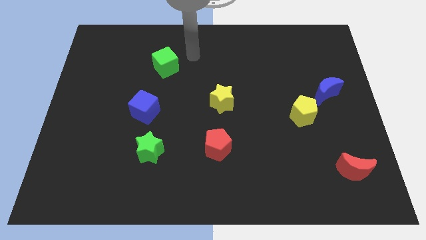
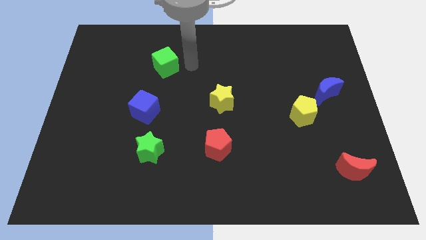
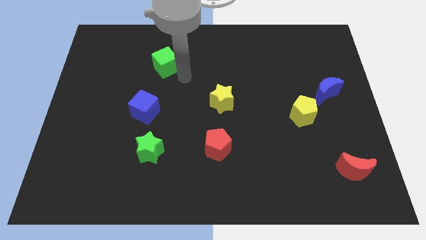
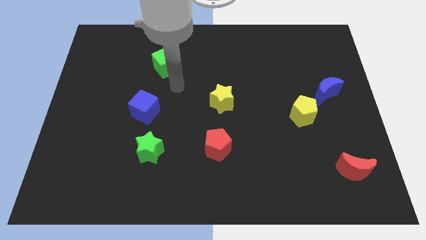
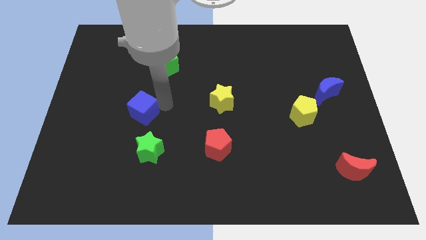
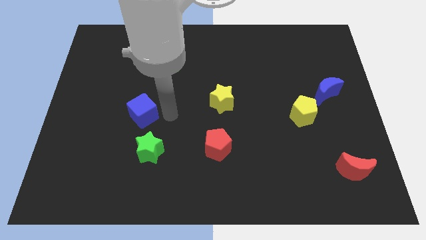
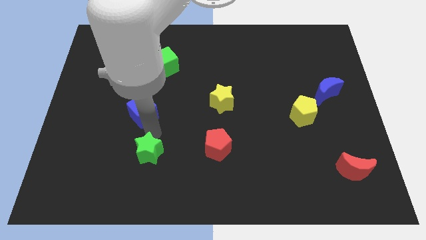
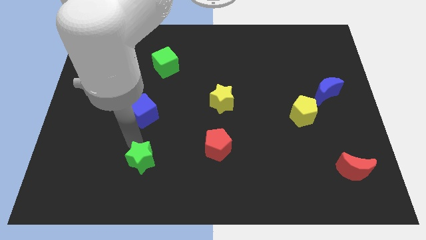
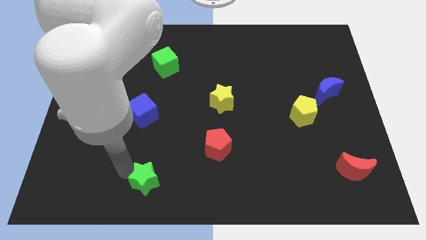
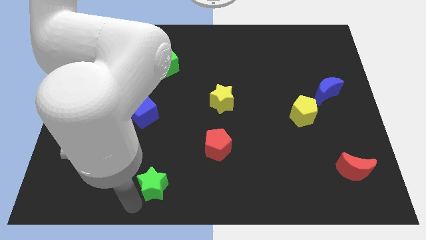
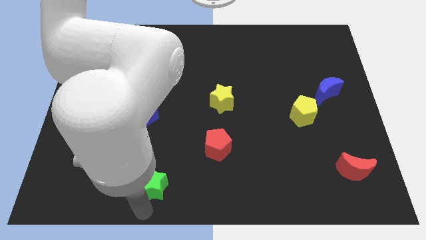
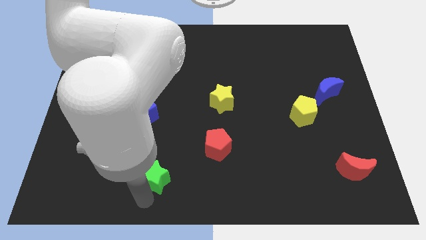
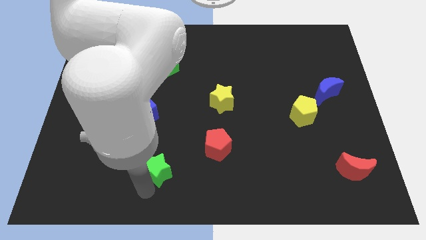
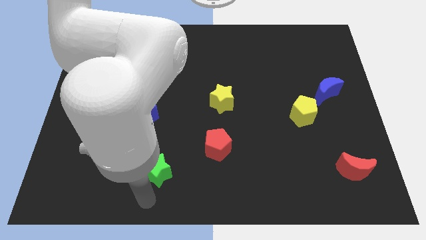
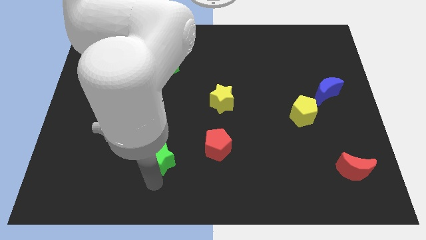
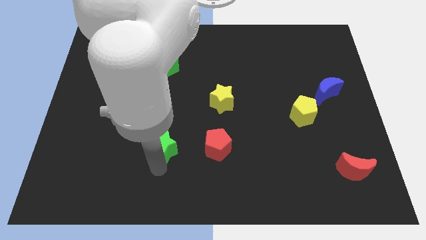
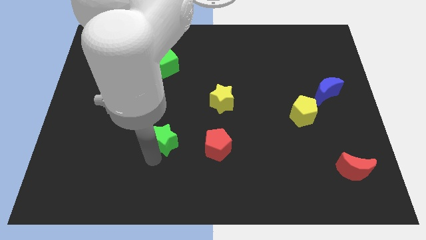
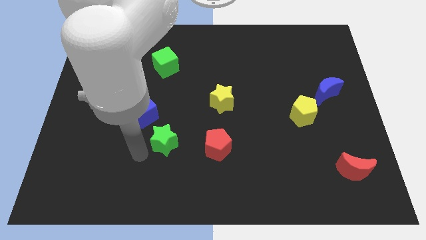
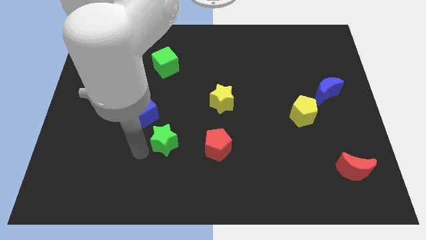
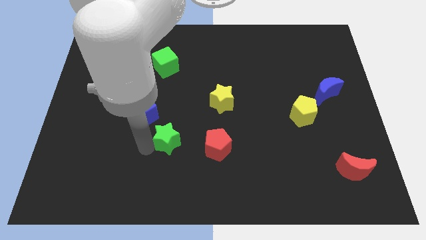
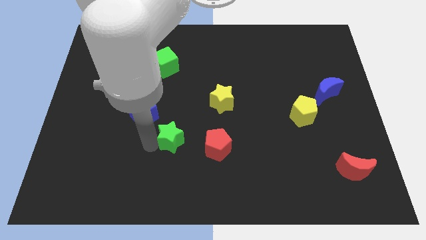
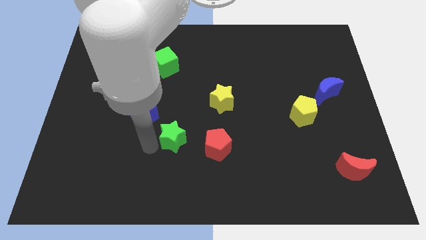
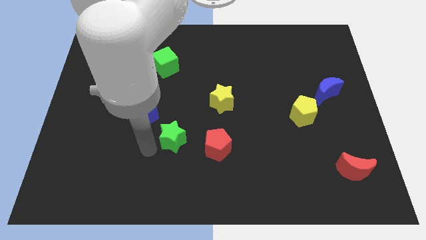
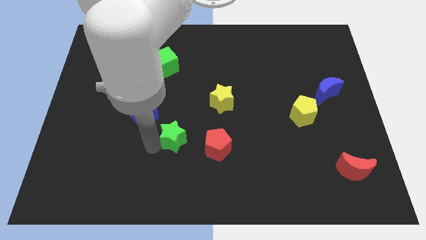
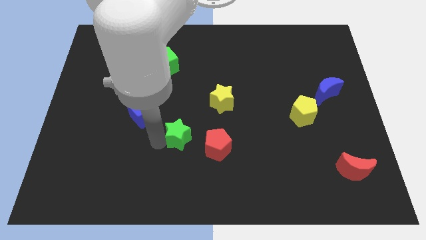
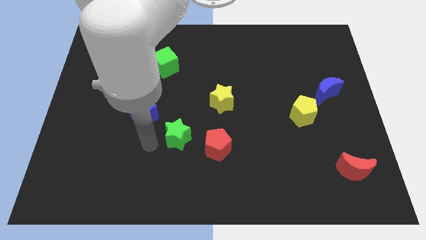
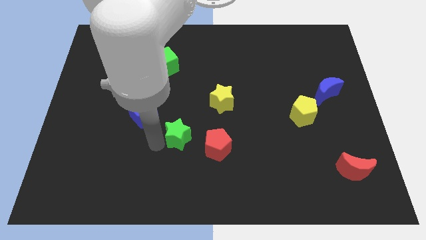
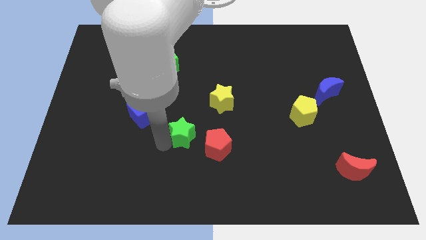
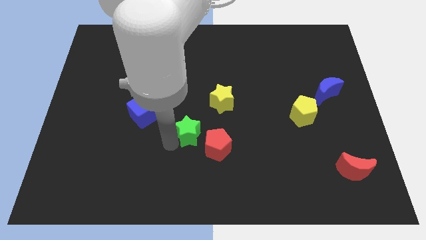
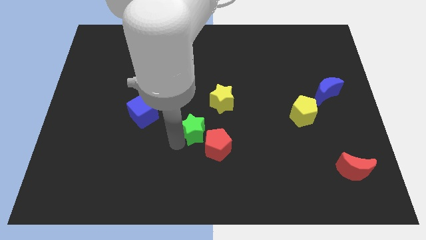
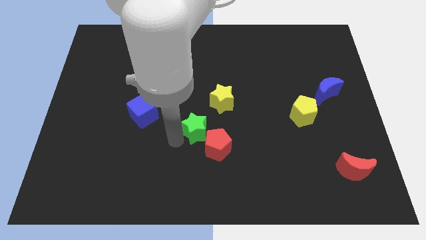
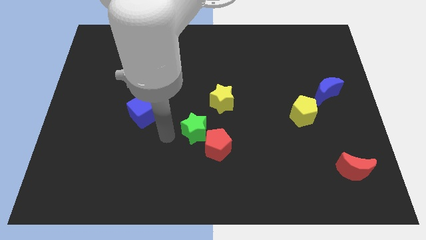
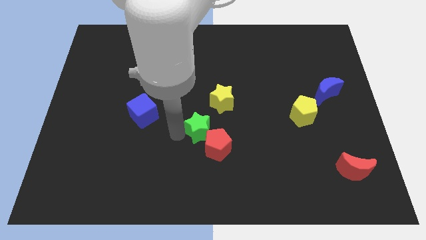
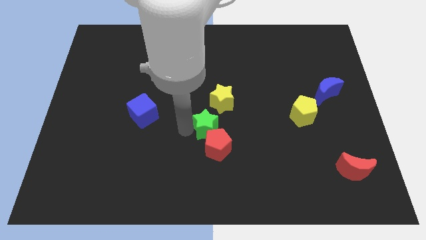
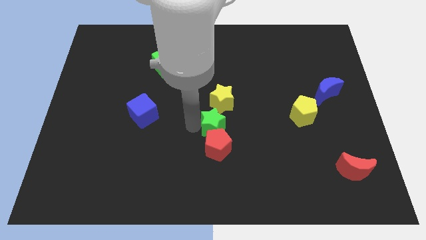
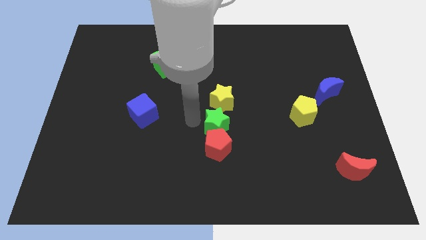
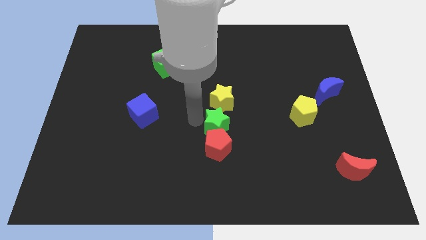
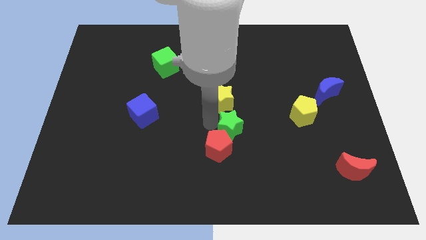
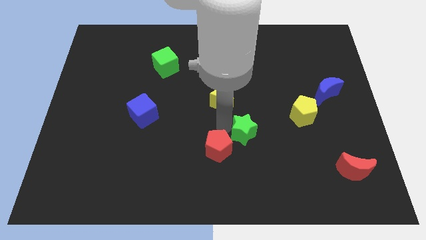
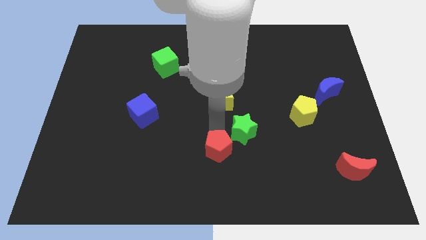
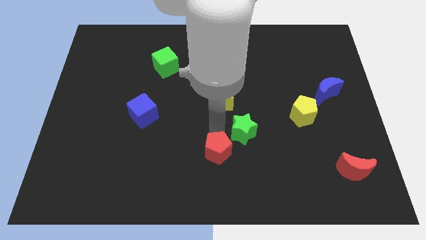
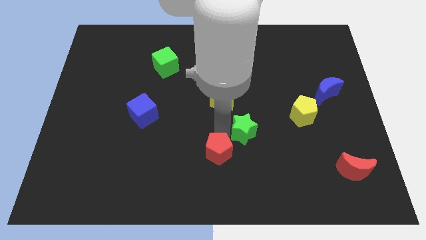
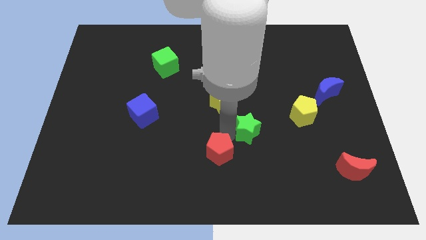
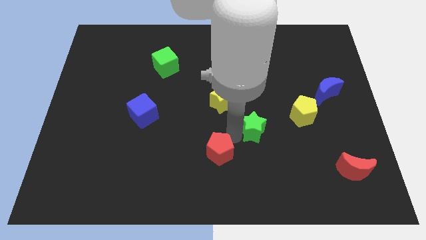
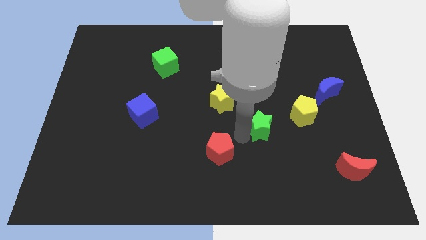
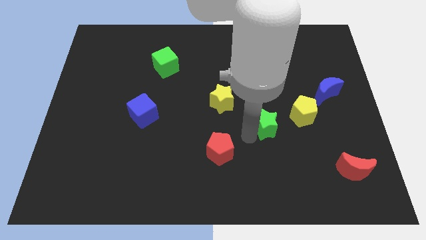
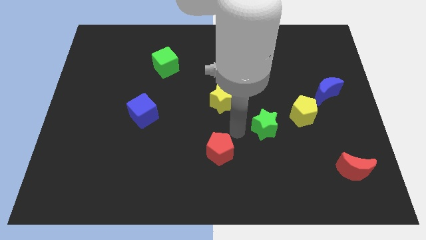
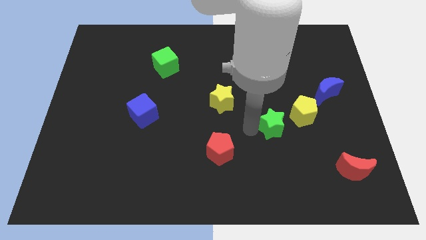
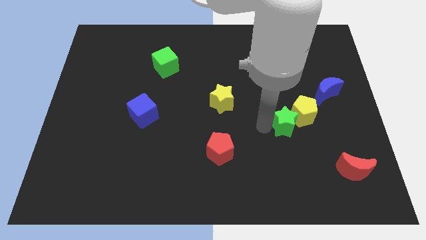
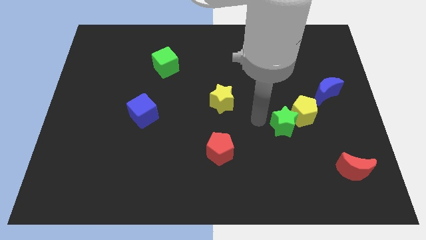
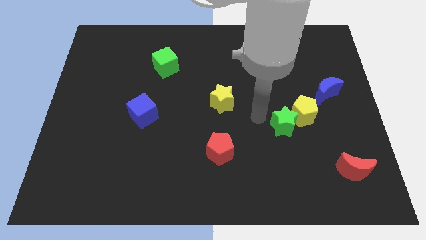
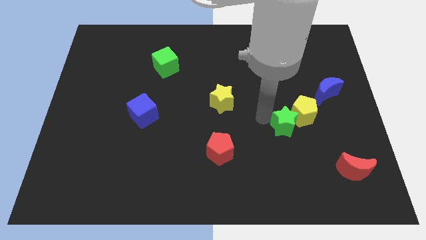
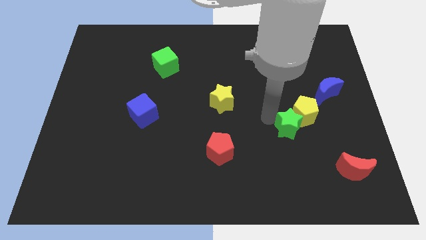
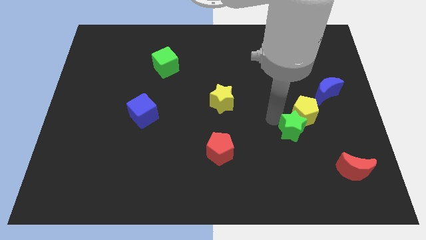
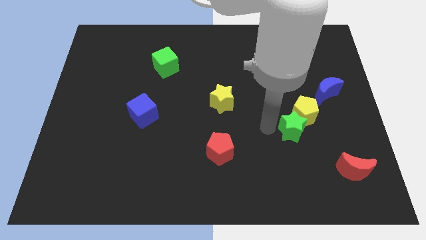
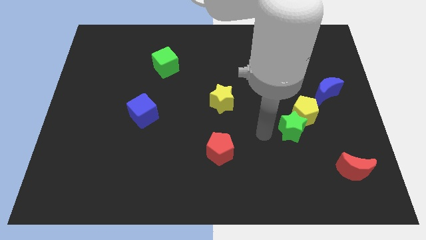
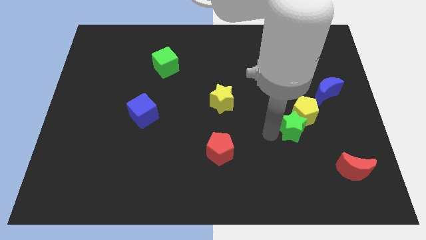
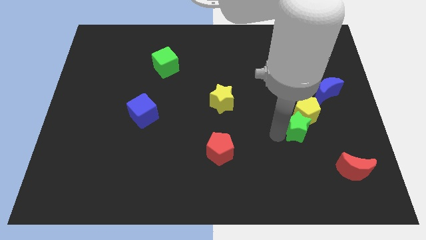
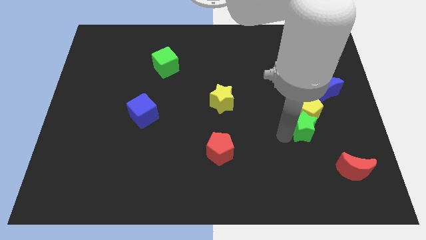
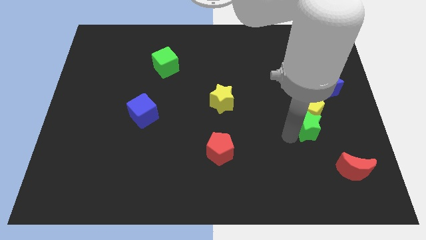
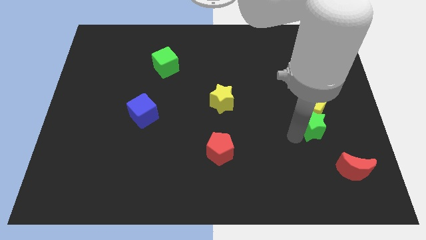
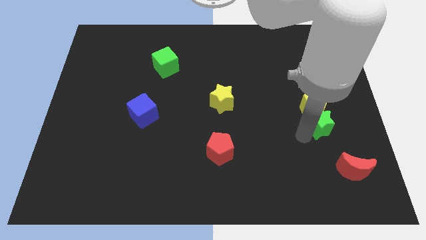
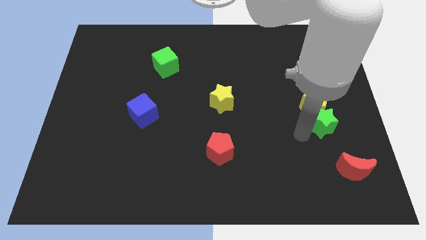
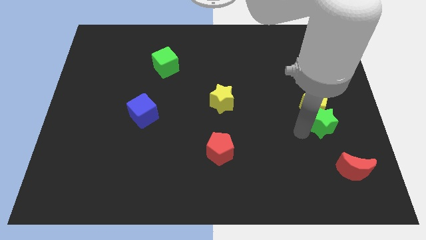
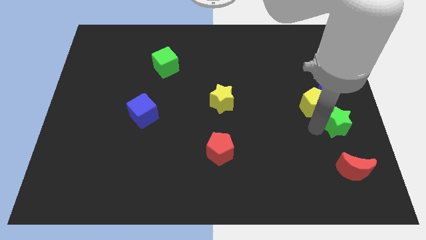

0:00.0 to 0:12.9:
put the green star to the center right
